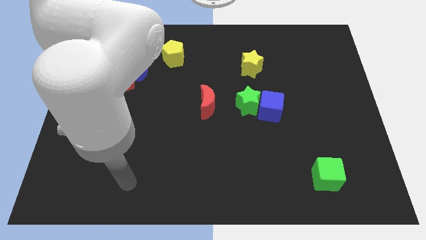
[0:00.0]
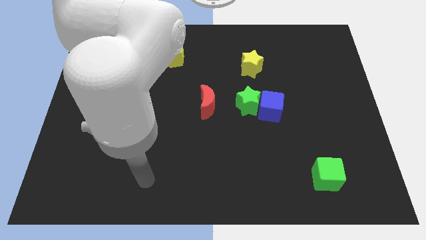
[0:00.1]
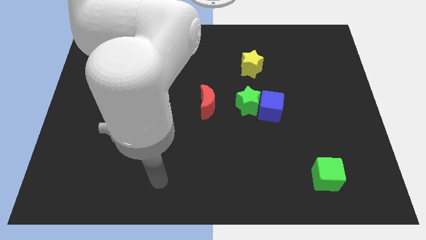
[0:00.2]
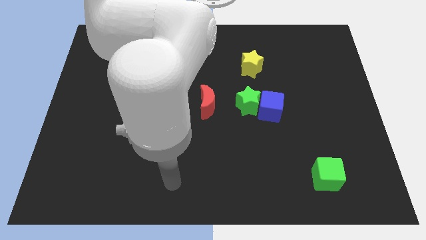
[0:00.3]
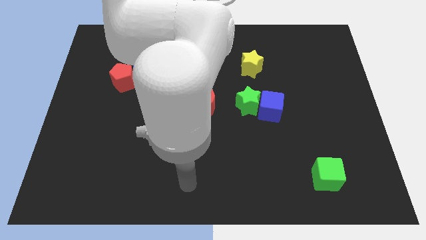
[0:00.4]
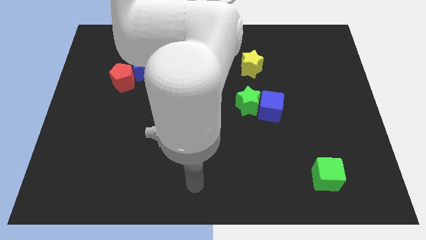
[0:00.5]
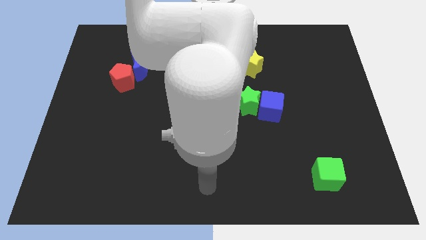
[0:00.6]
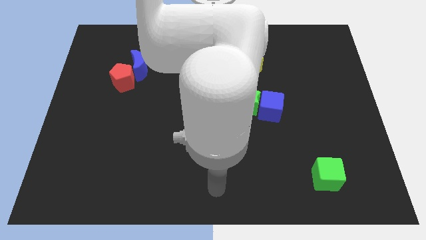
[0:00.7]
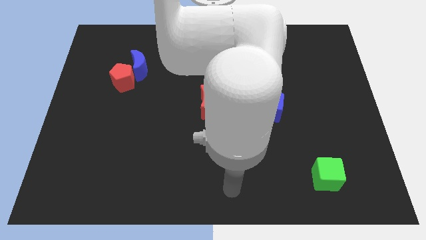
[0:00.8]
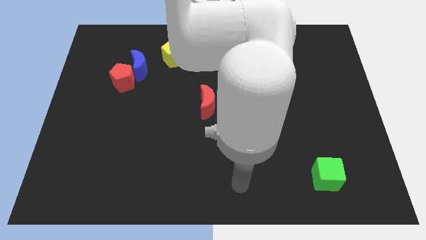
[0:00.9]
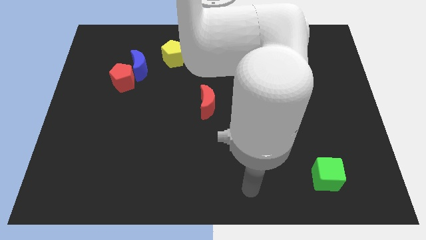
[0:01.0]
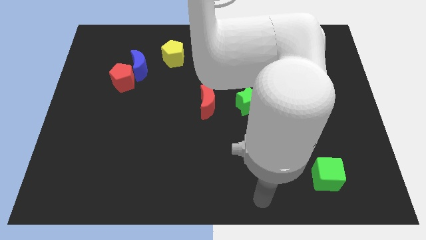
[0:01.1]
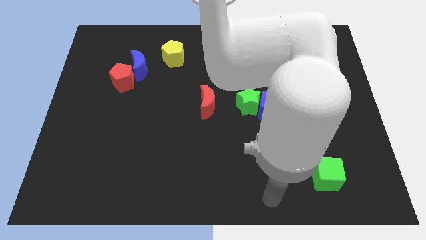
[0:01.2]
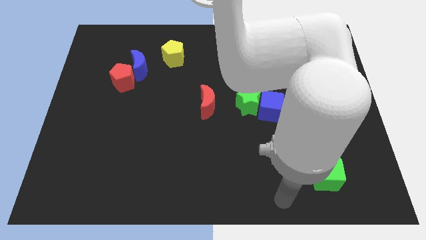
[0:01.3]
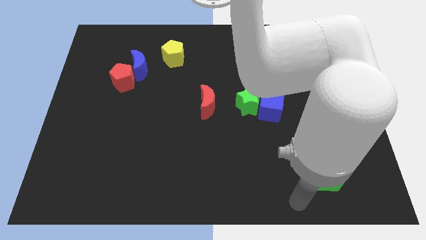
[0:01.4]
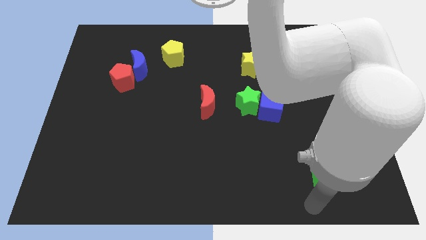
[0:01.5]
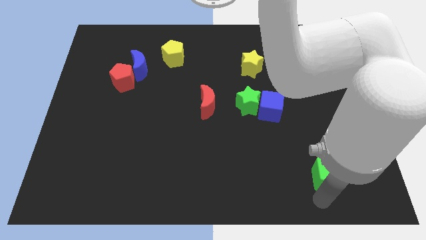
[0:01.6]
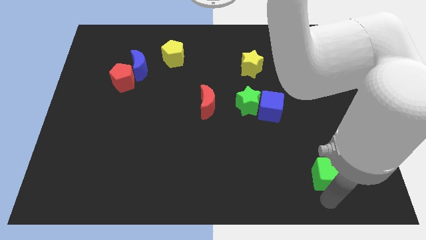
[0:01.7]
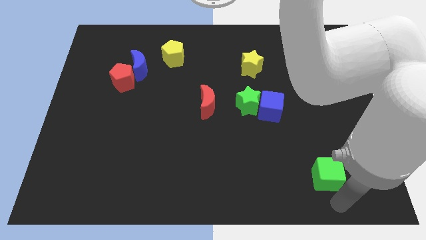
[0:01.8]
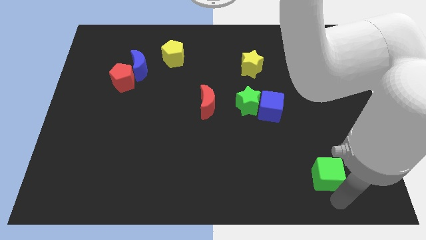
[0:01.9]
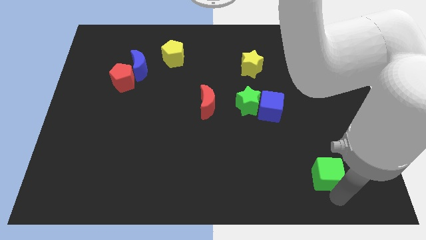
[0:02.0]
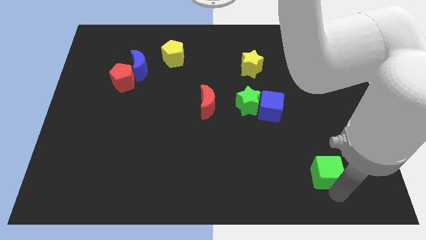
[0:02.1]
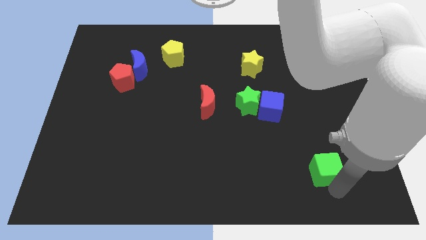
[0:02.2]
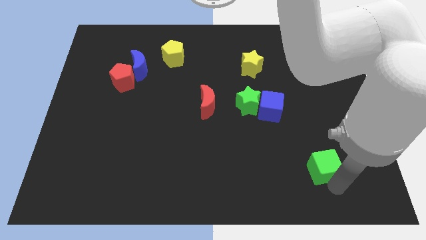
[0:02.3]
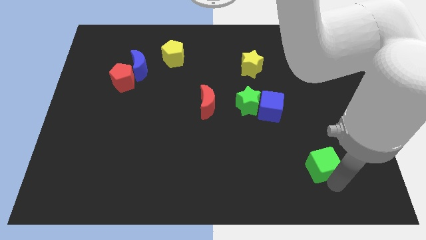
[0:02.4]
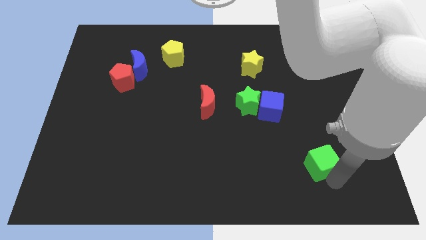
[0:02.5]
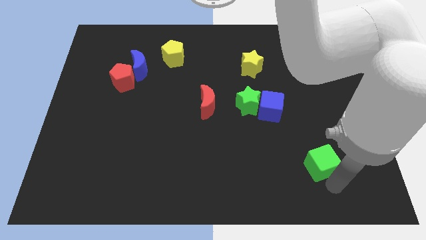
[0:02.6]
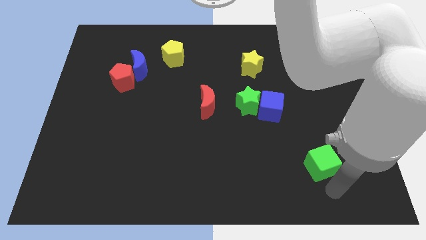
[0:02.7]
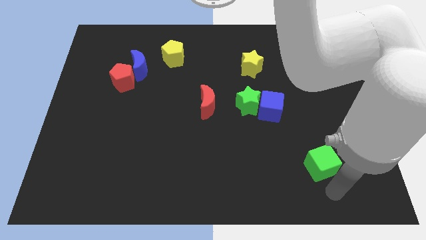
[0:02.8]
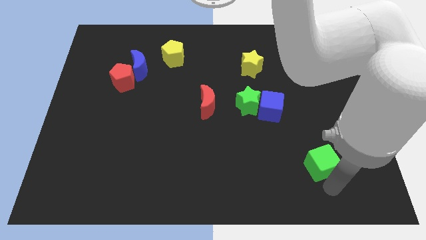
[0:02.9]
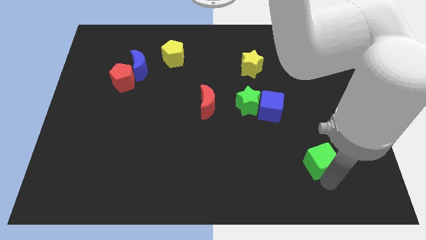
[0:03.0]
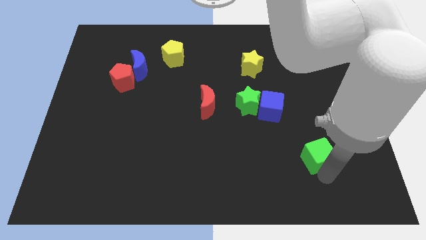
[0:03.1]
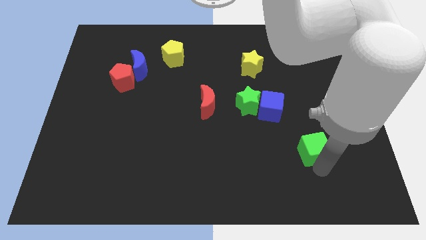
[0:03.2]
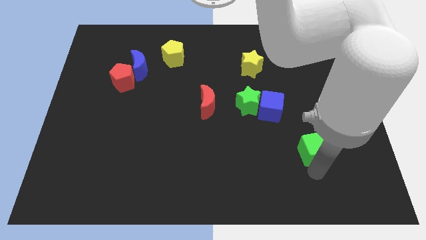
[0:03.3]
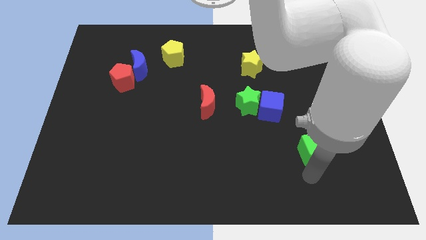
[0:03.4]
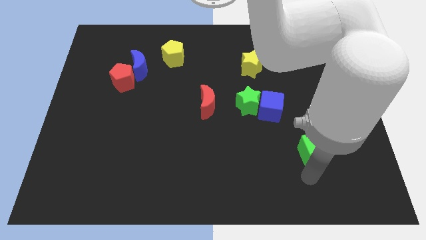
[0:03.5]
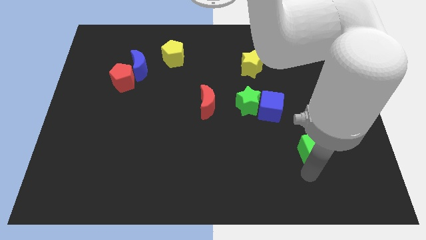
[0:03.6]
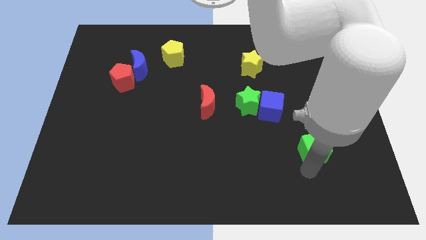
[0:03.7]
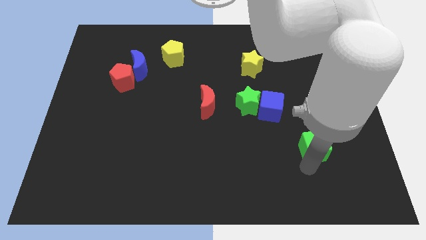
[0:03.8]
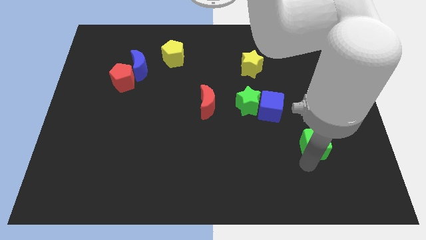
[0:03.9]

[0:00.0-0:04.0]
slide the green cube slightly up

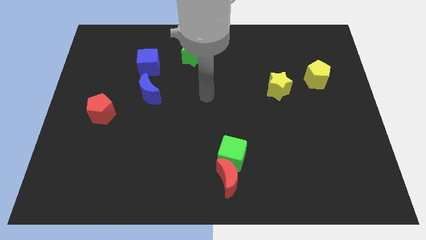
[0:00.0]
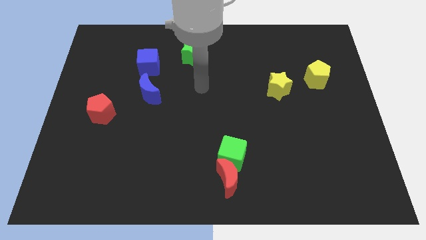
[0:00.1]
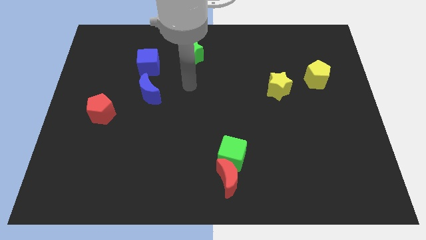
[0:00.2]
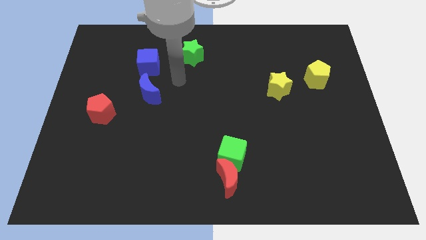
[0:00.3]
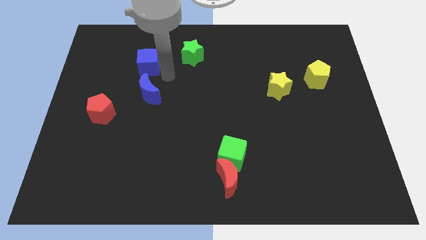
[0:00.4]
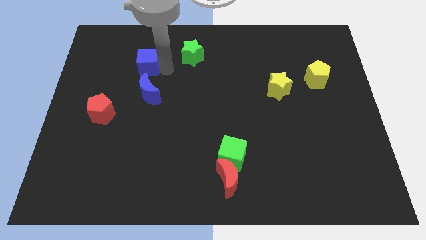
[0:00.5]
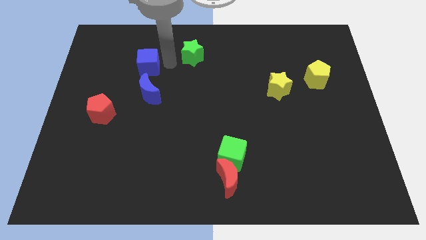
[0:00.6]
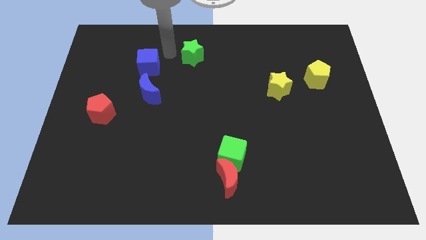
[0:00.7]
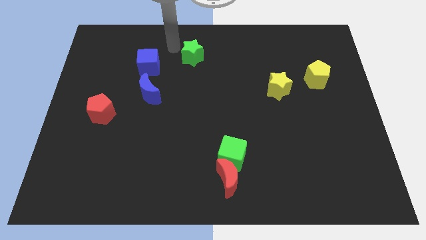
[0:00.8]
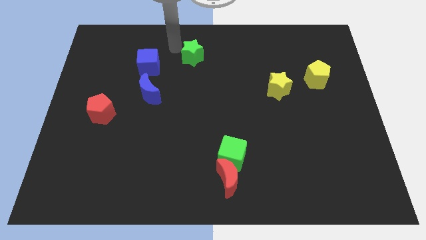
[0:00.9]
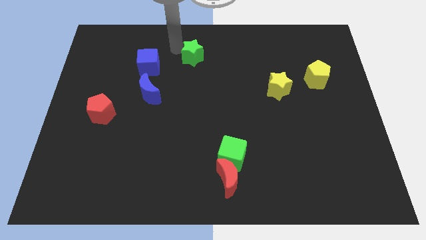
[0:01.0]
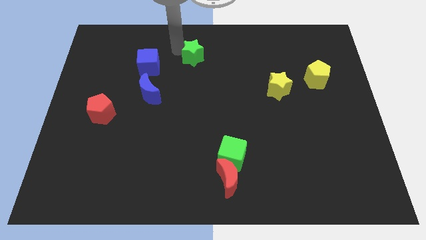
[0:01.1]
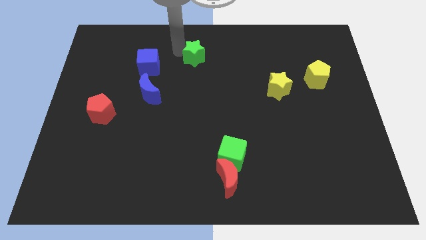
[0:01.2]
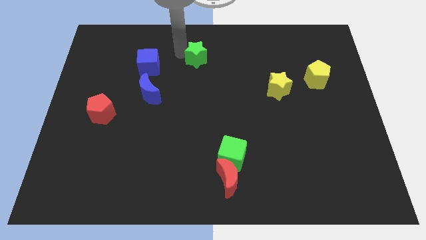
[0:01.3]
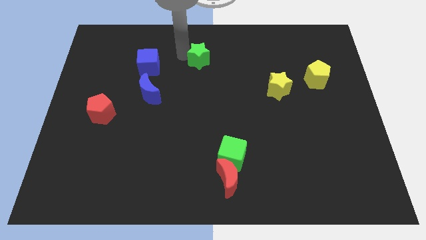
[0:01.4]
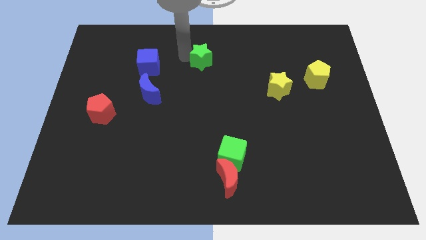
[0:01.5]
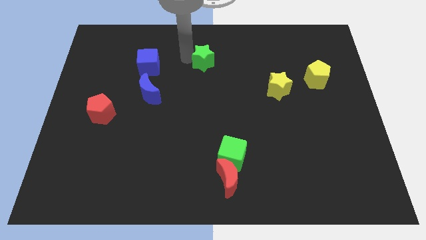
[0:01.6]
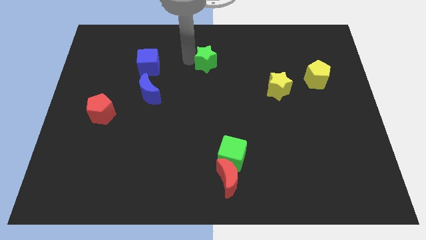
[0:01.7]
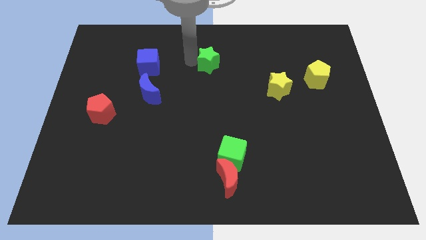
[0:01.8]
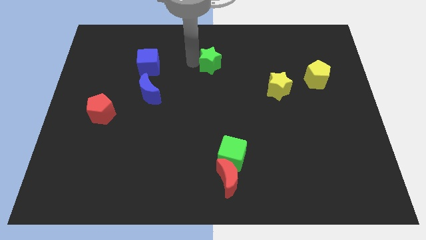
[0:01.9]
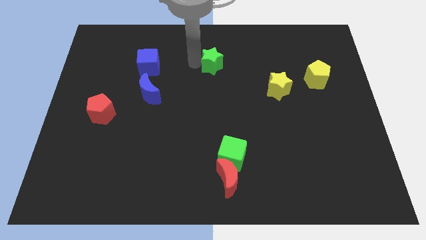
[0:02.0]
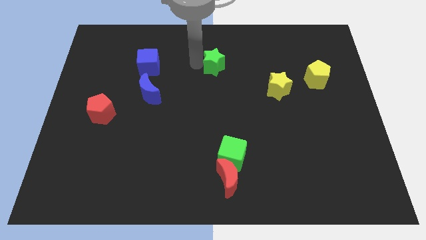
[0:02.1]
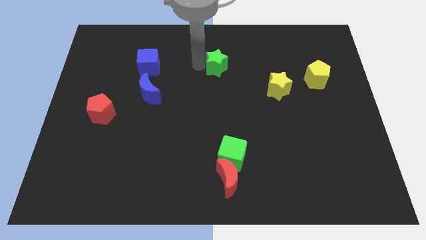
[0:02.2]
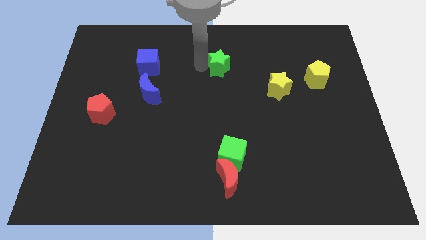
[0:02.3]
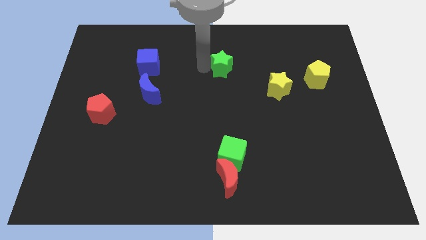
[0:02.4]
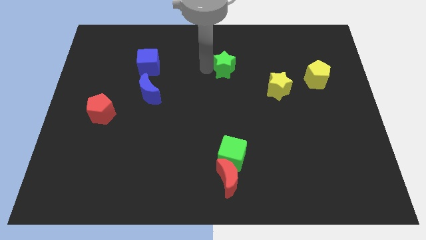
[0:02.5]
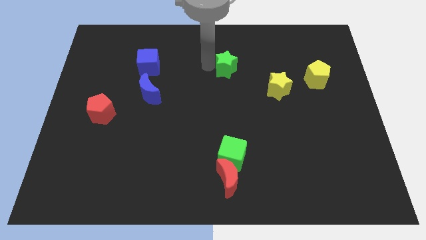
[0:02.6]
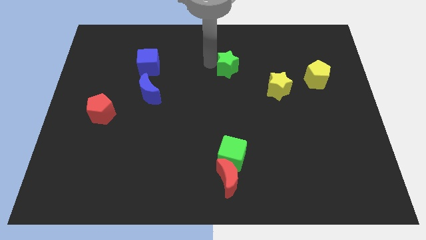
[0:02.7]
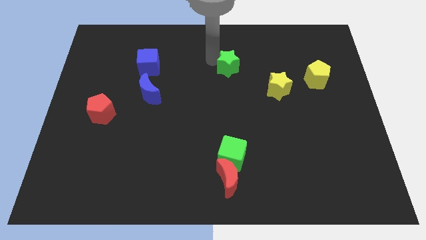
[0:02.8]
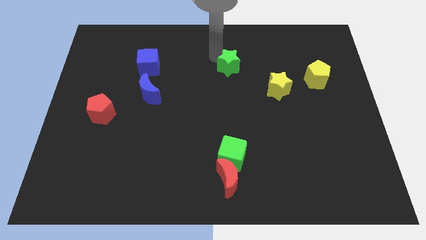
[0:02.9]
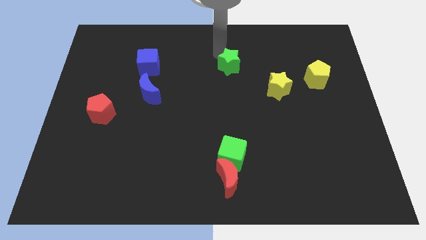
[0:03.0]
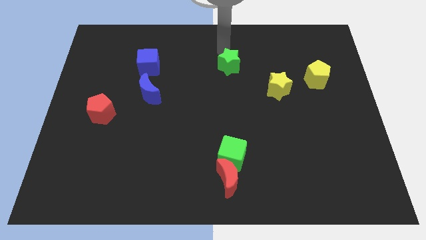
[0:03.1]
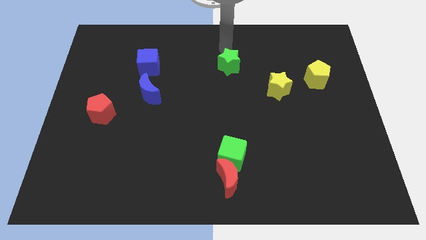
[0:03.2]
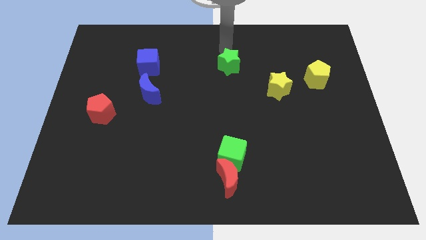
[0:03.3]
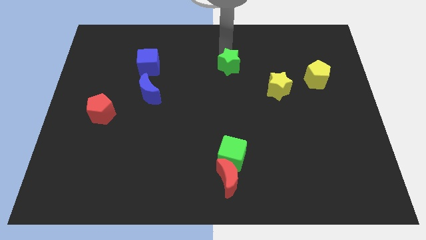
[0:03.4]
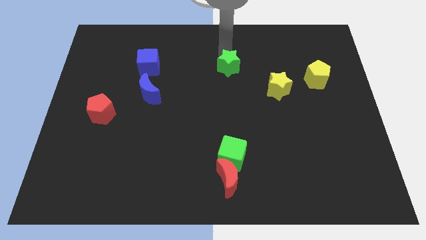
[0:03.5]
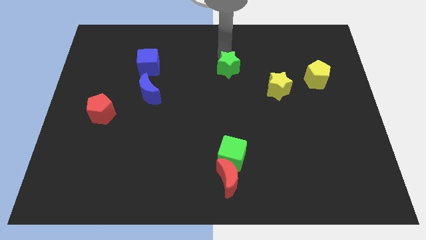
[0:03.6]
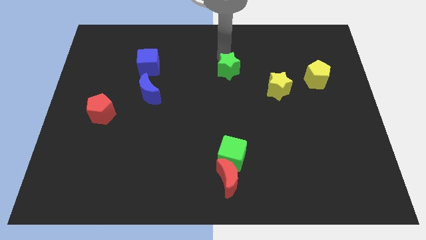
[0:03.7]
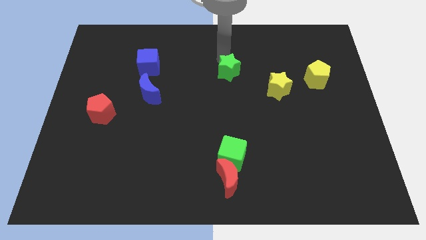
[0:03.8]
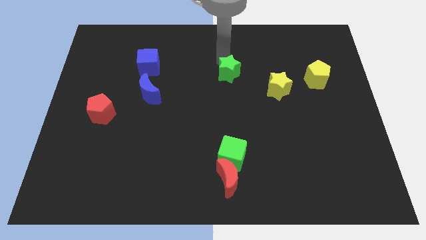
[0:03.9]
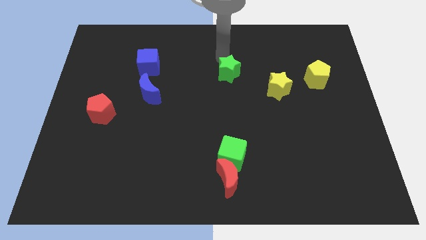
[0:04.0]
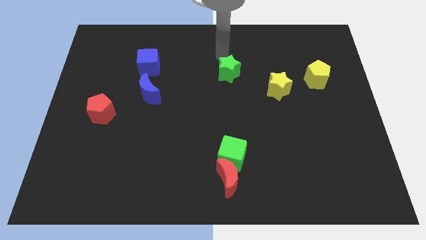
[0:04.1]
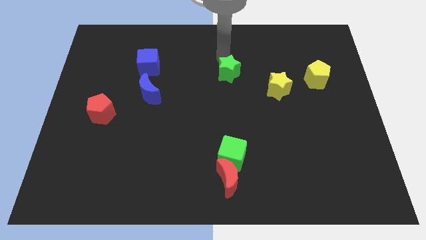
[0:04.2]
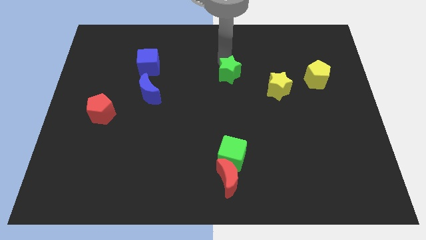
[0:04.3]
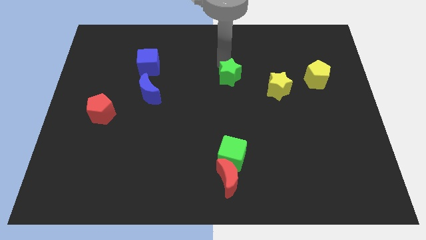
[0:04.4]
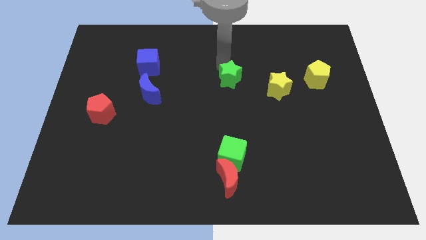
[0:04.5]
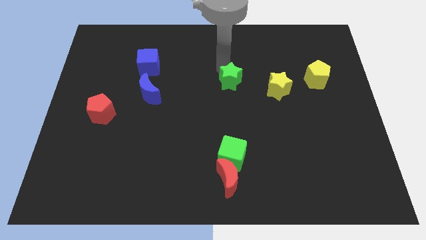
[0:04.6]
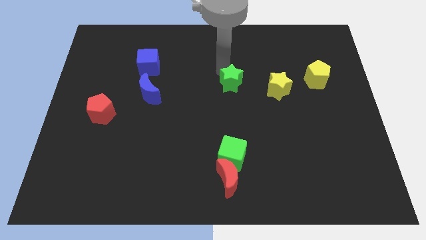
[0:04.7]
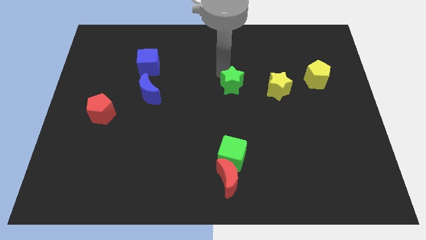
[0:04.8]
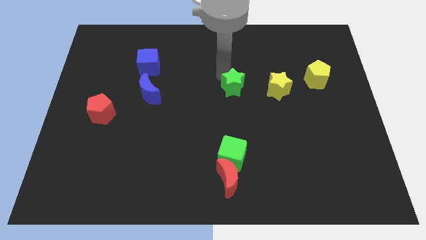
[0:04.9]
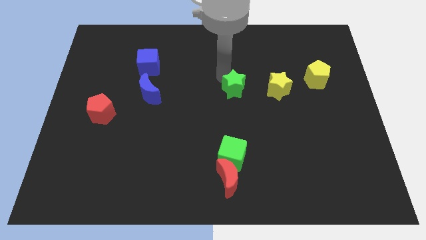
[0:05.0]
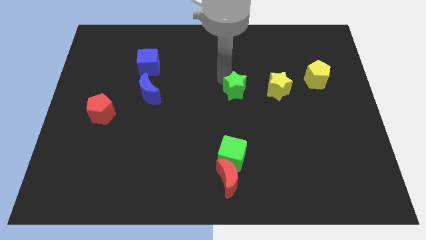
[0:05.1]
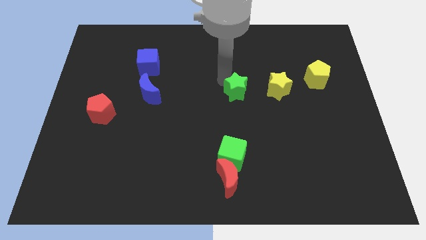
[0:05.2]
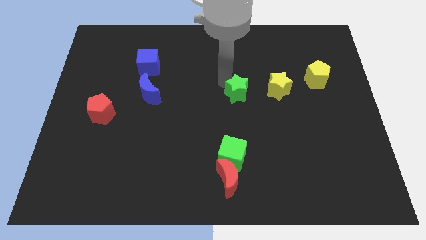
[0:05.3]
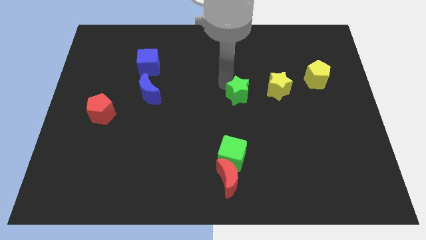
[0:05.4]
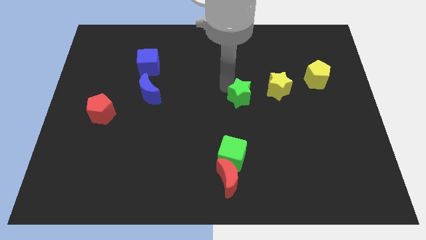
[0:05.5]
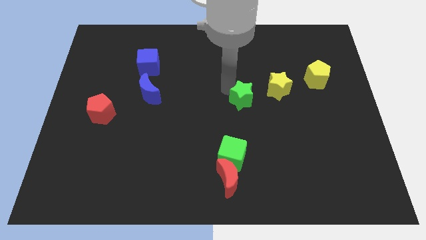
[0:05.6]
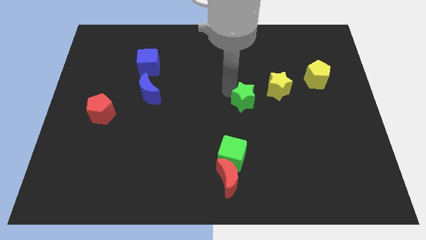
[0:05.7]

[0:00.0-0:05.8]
move the green star diagonally down and to the right
